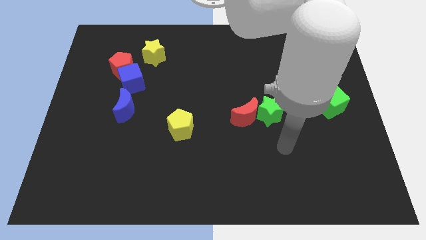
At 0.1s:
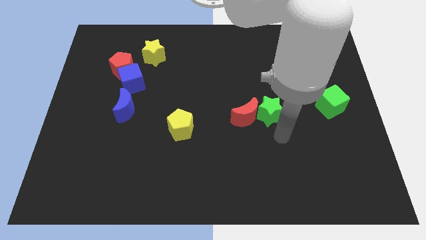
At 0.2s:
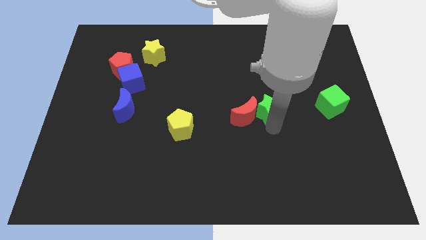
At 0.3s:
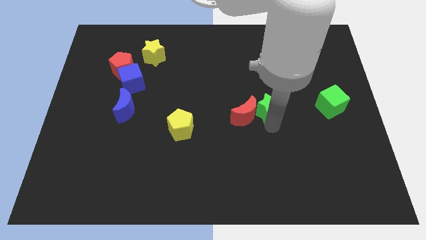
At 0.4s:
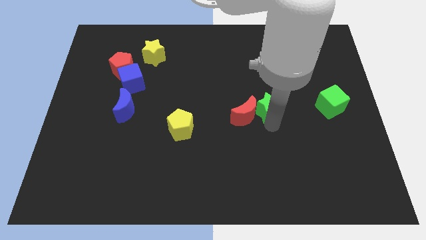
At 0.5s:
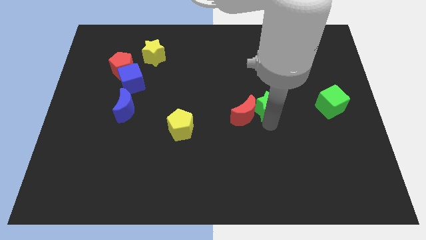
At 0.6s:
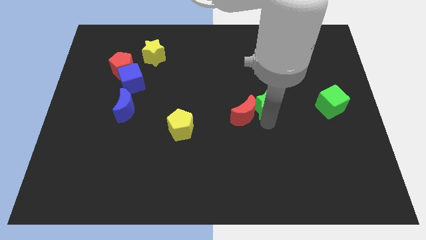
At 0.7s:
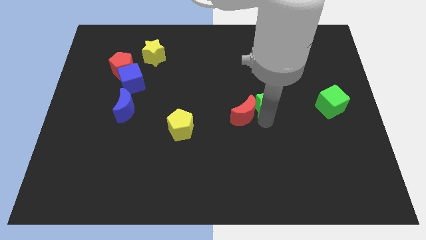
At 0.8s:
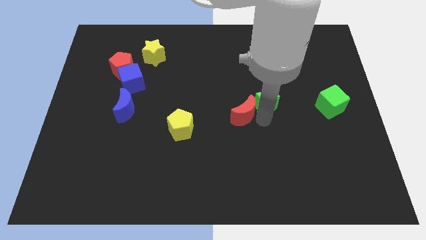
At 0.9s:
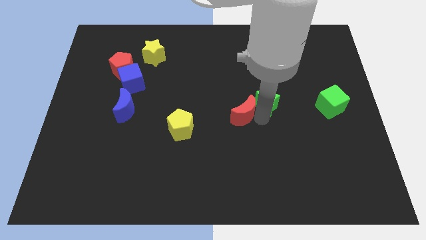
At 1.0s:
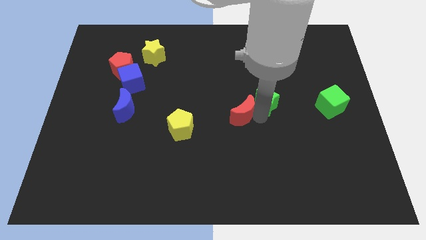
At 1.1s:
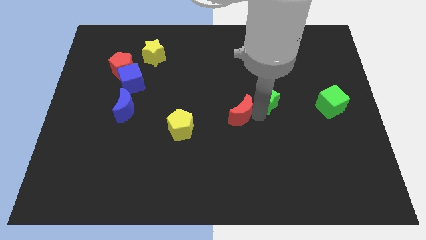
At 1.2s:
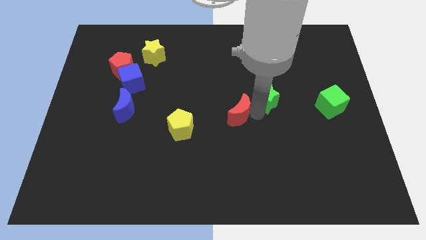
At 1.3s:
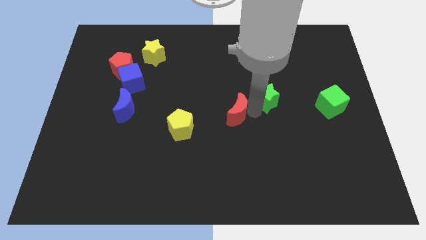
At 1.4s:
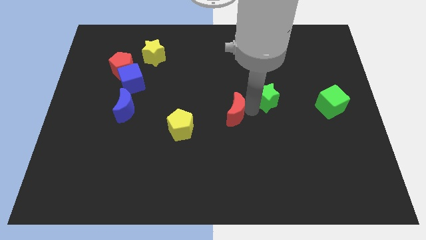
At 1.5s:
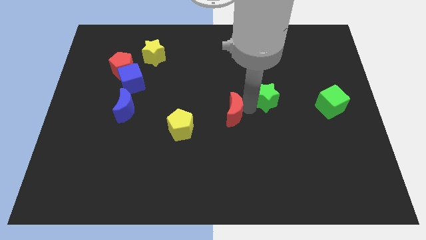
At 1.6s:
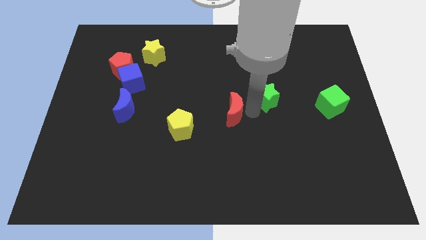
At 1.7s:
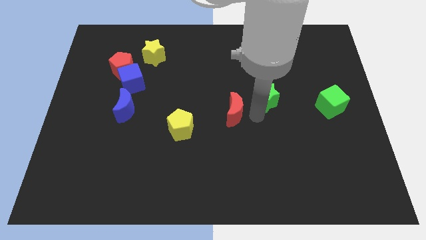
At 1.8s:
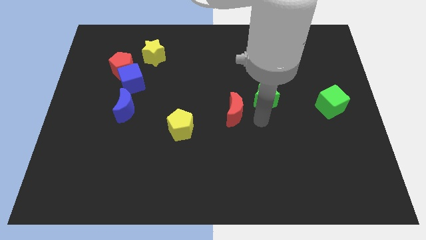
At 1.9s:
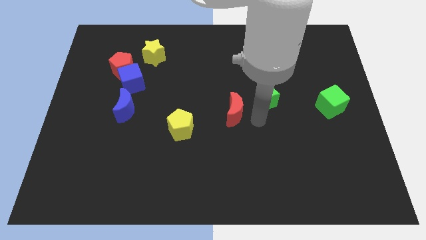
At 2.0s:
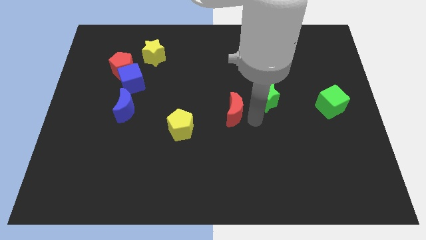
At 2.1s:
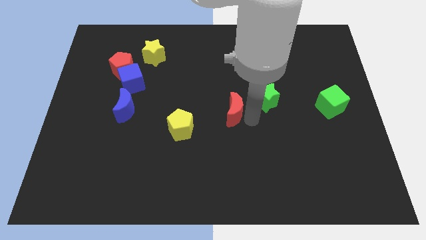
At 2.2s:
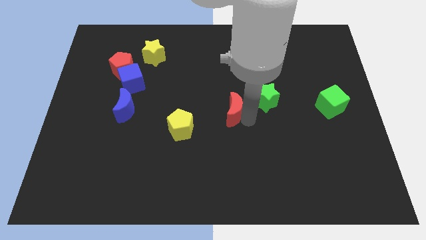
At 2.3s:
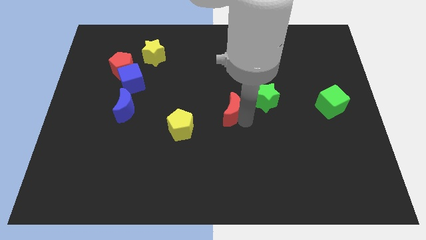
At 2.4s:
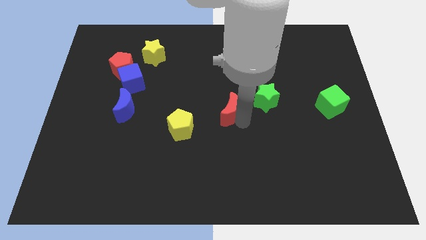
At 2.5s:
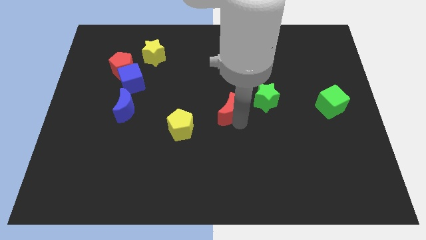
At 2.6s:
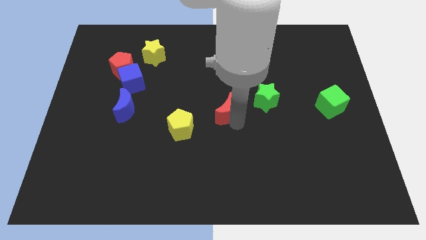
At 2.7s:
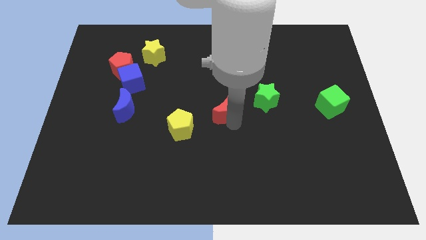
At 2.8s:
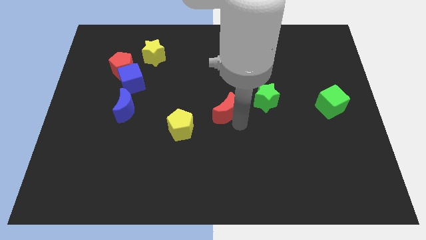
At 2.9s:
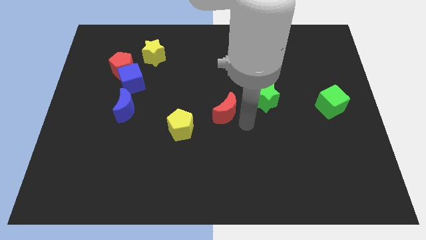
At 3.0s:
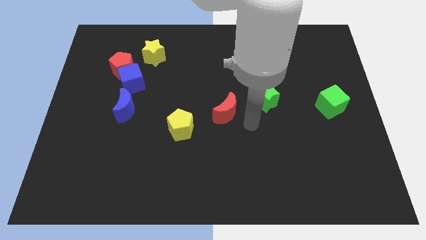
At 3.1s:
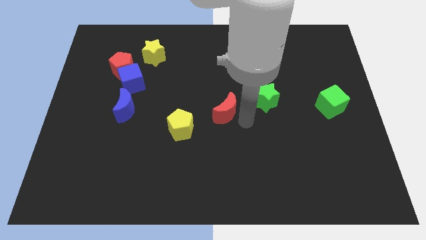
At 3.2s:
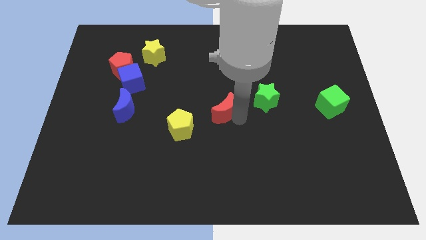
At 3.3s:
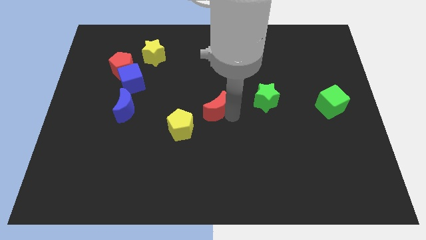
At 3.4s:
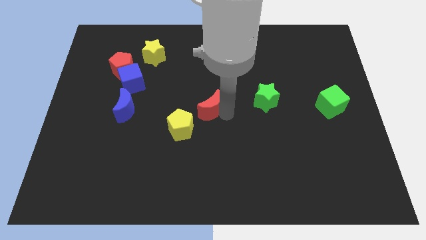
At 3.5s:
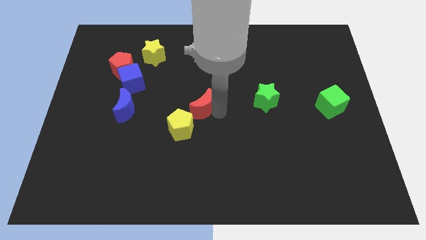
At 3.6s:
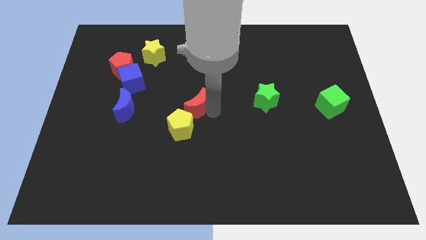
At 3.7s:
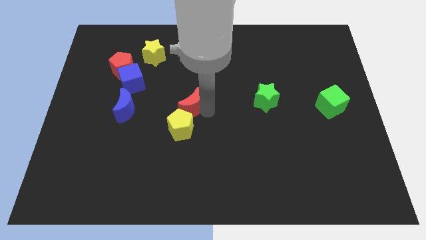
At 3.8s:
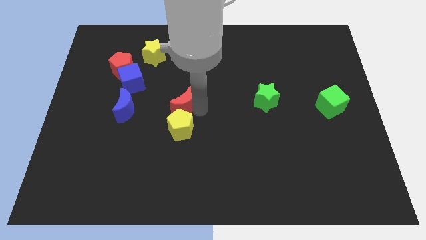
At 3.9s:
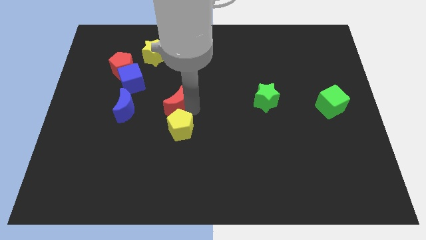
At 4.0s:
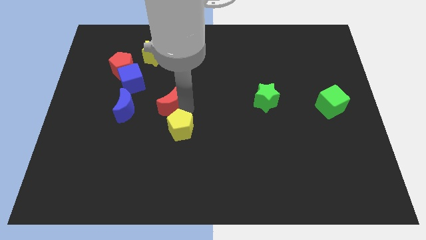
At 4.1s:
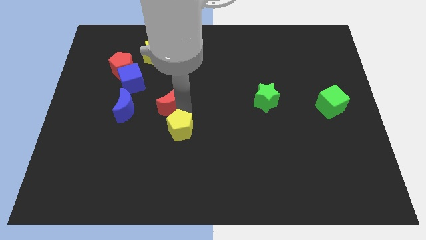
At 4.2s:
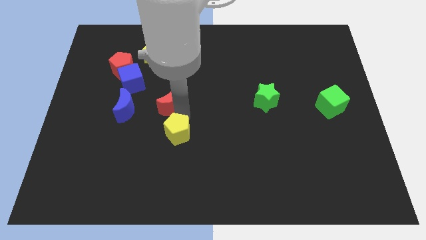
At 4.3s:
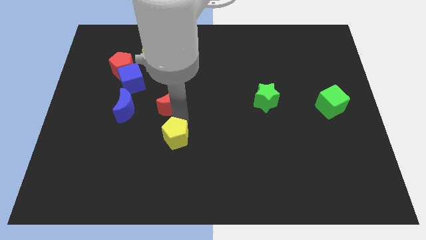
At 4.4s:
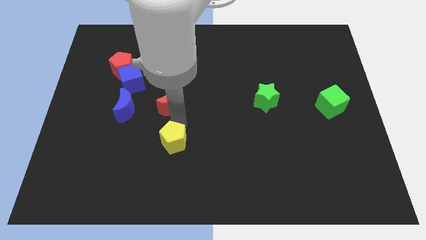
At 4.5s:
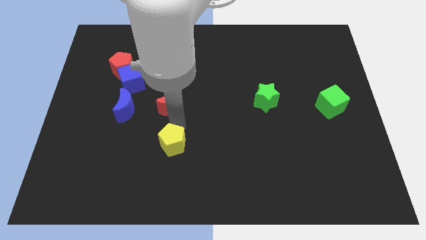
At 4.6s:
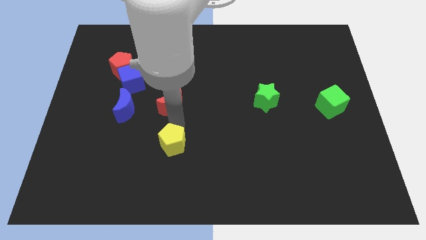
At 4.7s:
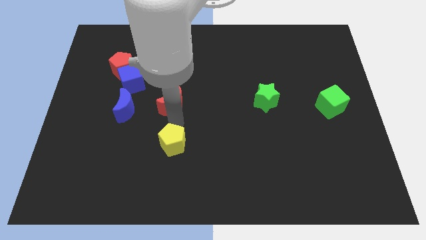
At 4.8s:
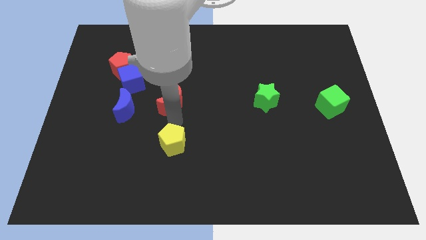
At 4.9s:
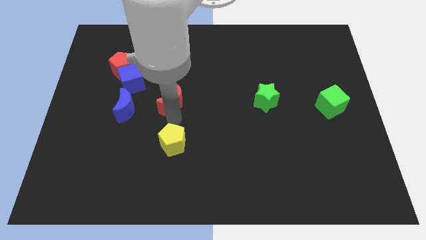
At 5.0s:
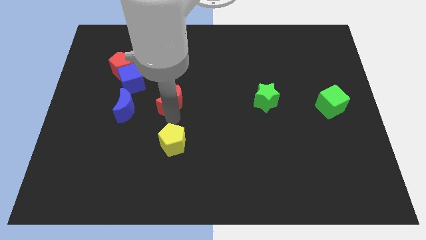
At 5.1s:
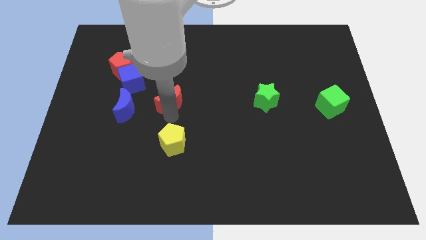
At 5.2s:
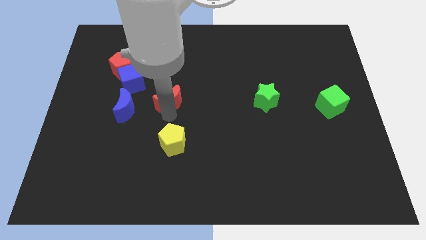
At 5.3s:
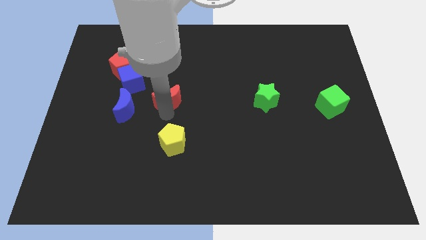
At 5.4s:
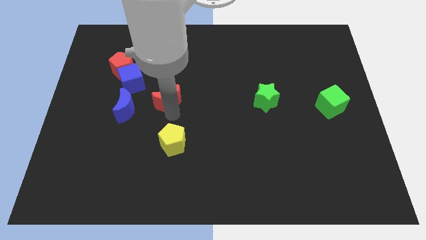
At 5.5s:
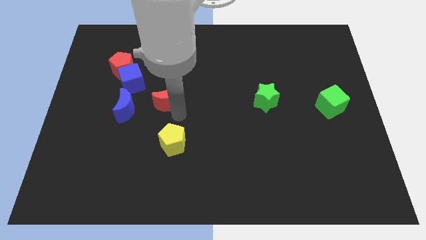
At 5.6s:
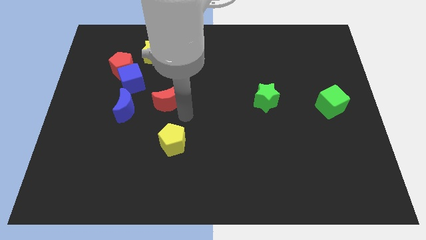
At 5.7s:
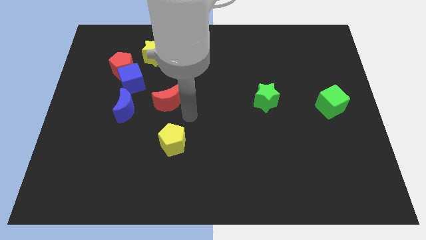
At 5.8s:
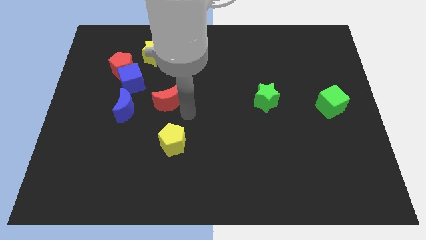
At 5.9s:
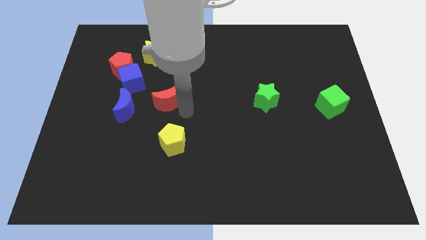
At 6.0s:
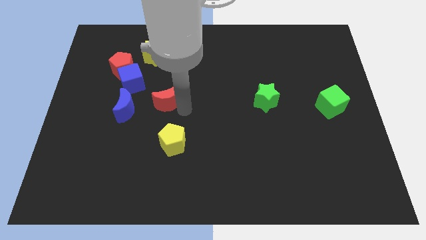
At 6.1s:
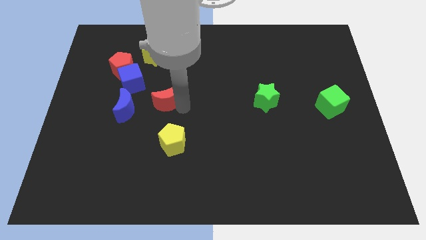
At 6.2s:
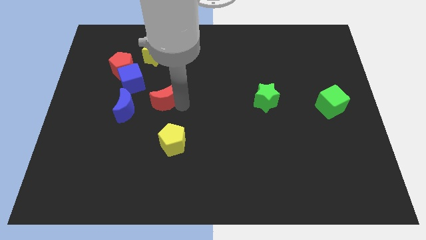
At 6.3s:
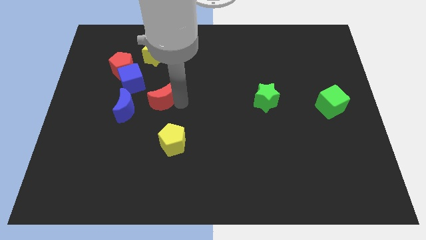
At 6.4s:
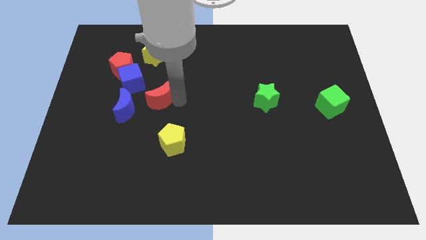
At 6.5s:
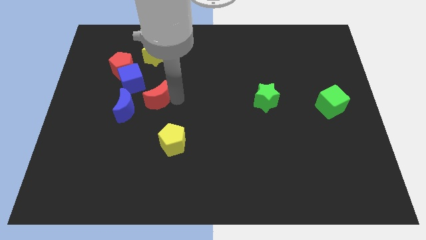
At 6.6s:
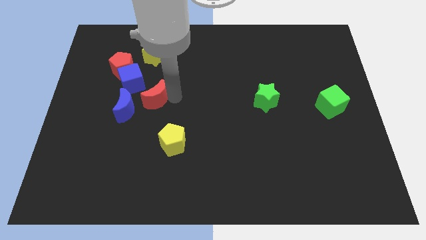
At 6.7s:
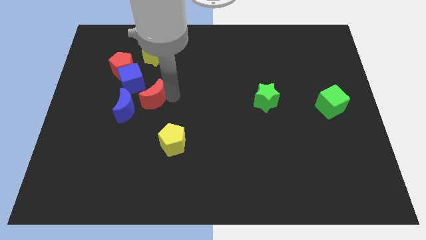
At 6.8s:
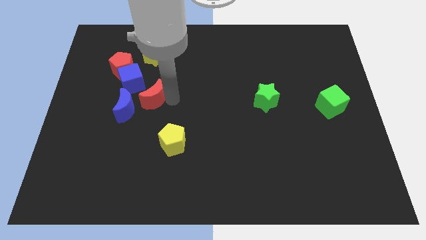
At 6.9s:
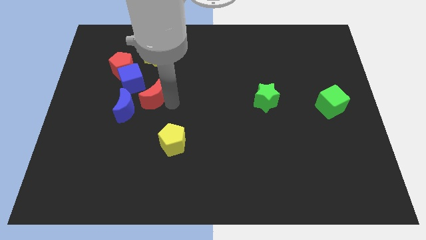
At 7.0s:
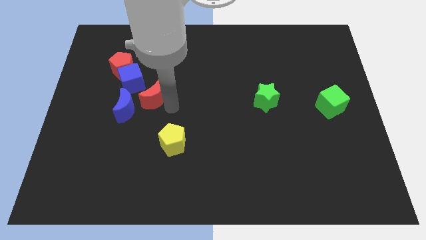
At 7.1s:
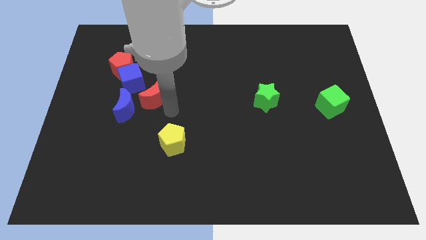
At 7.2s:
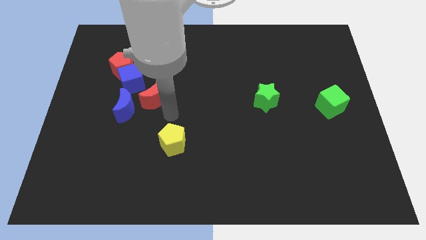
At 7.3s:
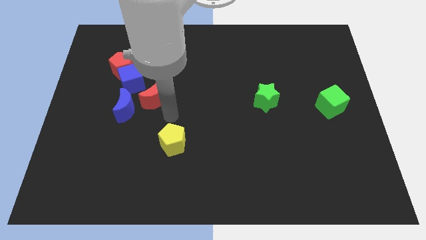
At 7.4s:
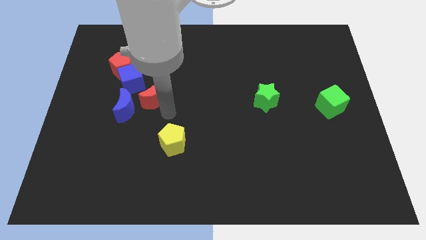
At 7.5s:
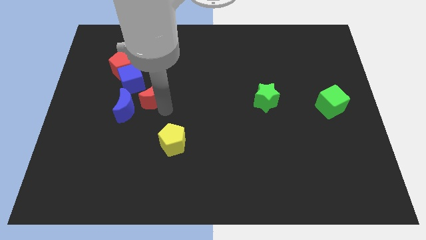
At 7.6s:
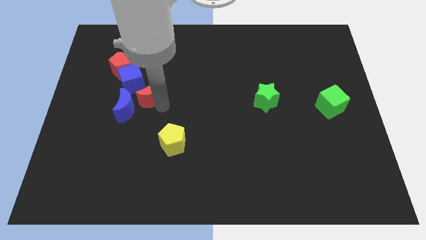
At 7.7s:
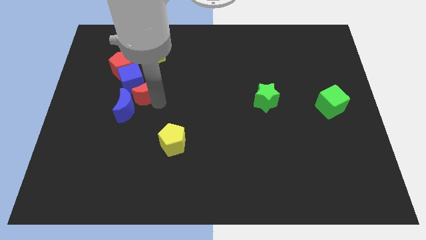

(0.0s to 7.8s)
push the red moon to the blue cube
